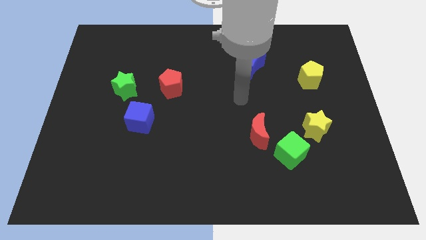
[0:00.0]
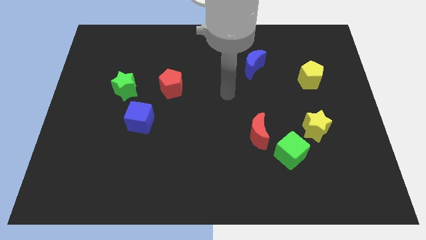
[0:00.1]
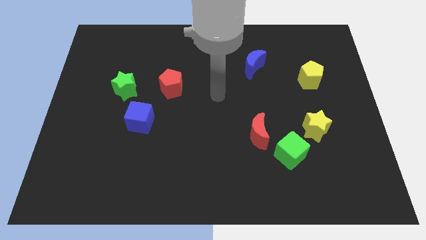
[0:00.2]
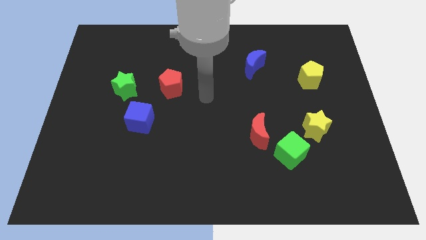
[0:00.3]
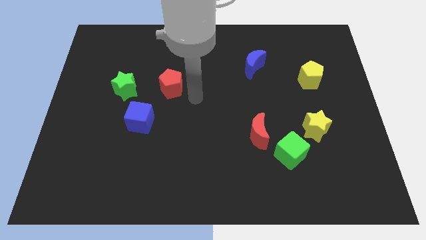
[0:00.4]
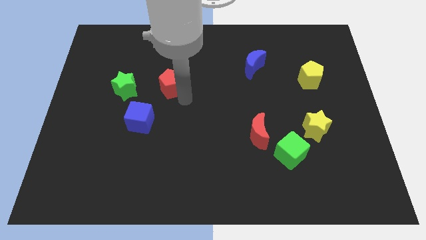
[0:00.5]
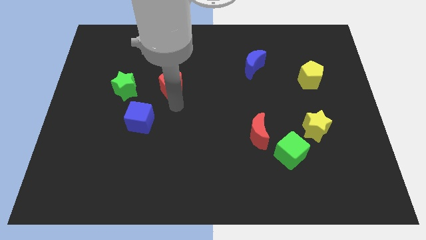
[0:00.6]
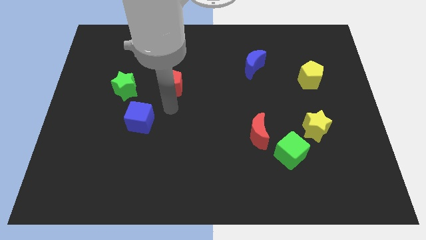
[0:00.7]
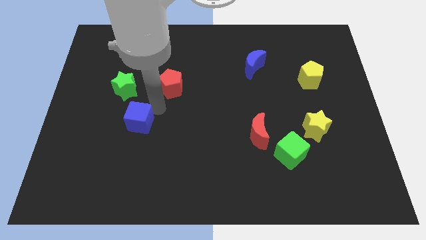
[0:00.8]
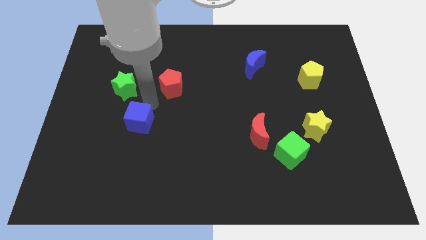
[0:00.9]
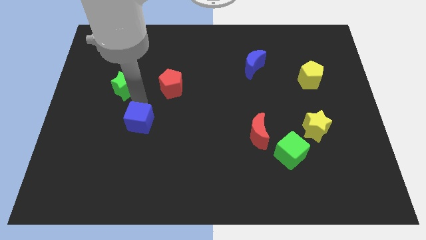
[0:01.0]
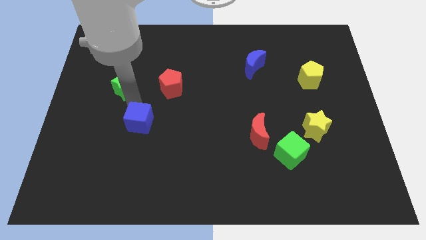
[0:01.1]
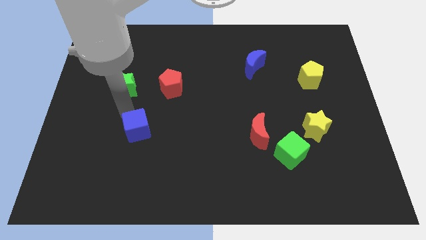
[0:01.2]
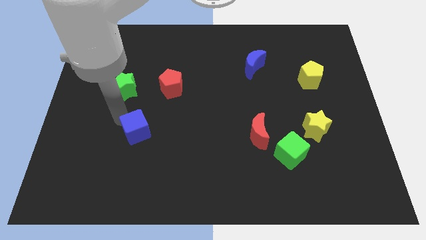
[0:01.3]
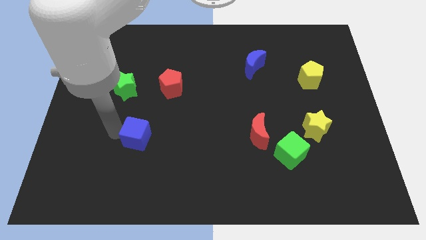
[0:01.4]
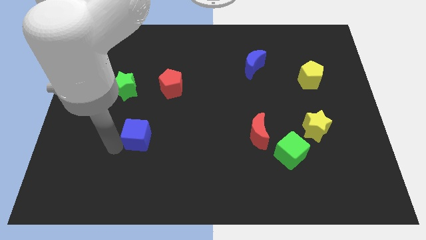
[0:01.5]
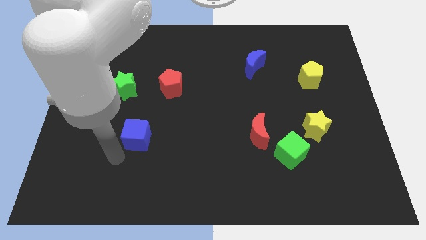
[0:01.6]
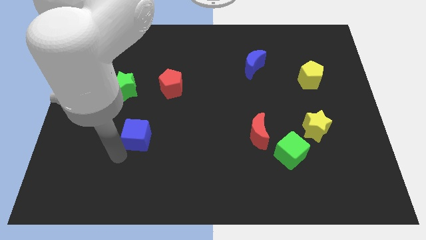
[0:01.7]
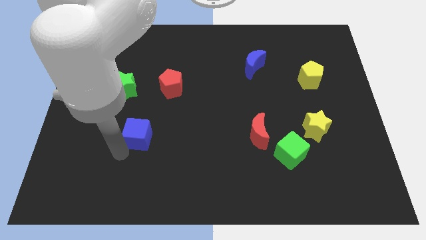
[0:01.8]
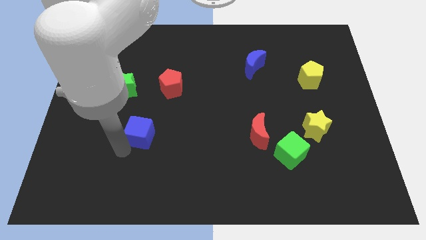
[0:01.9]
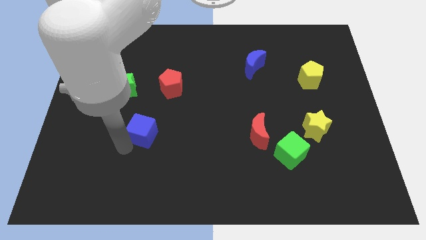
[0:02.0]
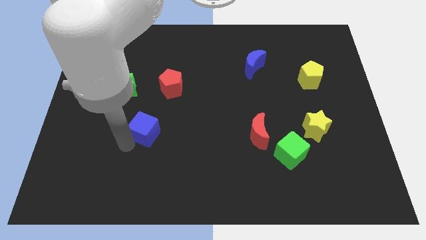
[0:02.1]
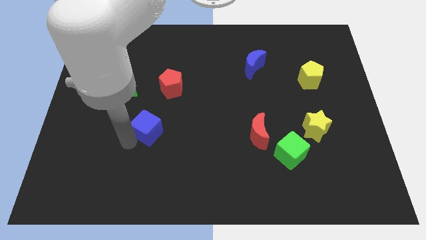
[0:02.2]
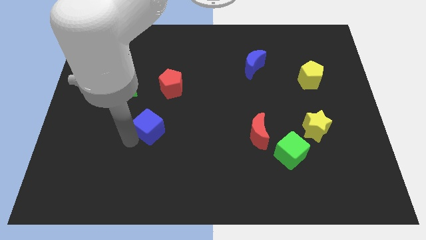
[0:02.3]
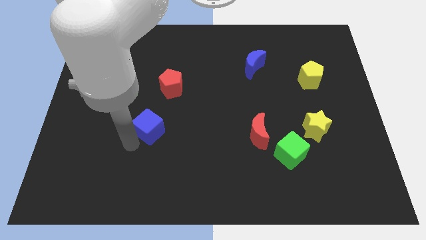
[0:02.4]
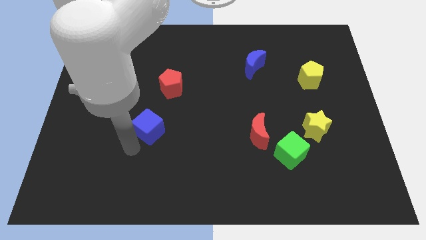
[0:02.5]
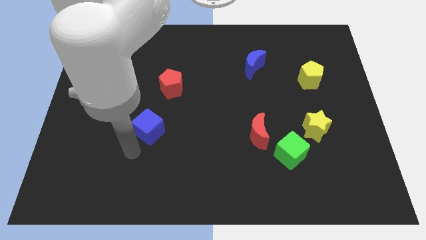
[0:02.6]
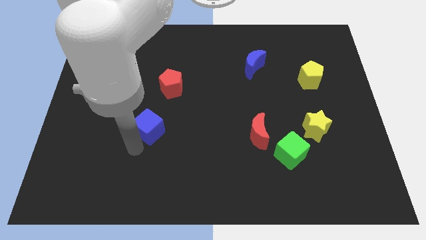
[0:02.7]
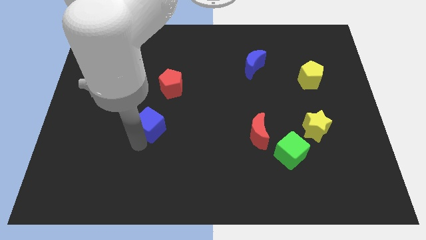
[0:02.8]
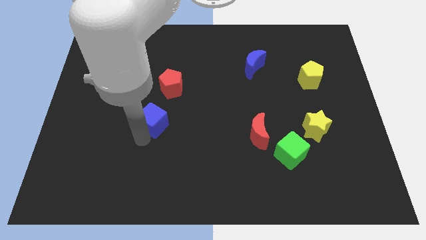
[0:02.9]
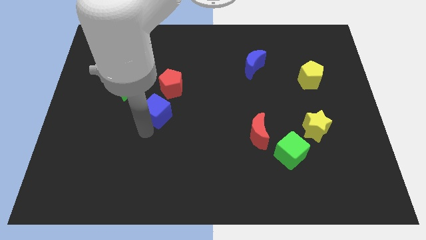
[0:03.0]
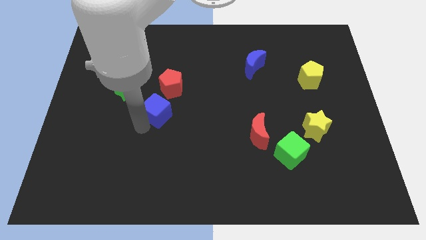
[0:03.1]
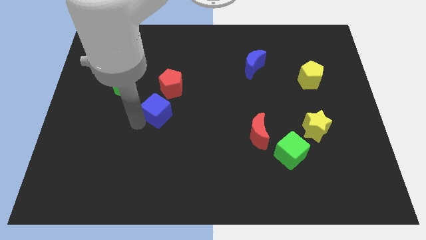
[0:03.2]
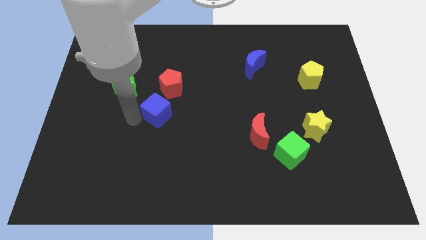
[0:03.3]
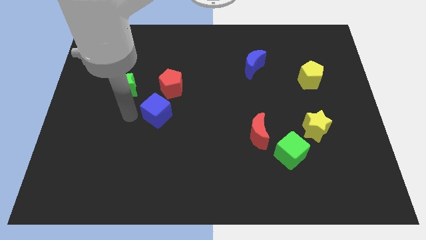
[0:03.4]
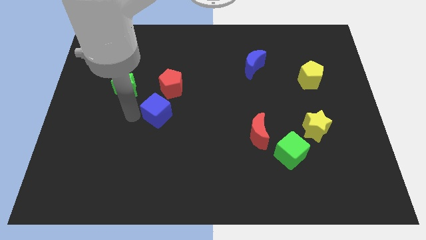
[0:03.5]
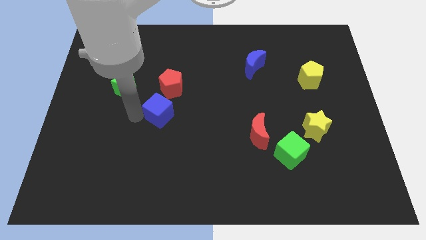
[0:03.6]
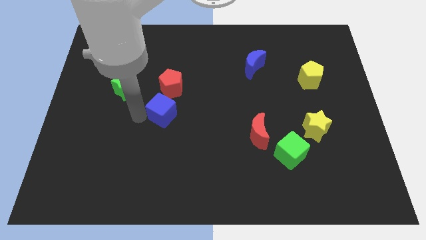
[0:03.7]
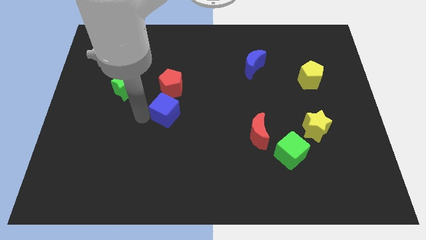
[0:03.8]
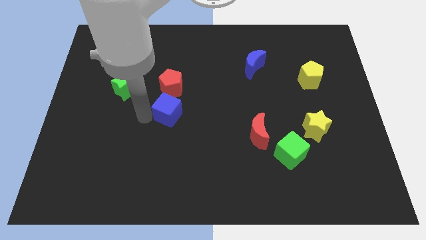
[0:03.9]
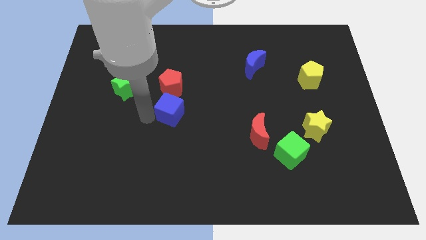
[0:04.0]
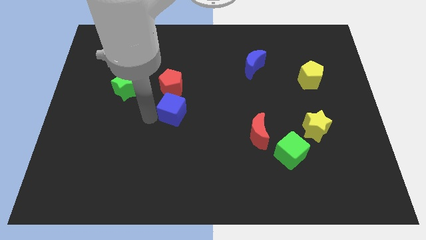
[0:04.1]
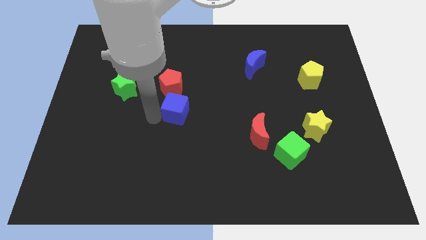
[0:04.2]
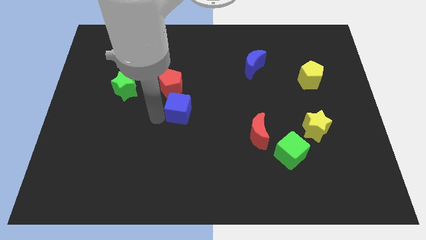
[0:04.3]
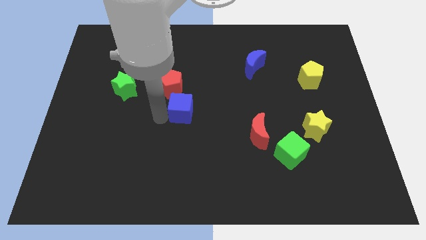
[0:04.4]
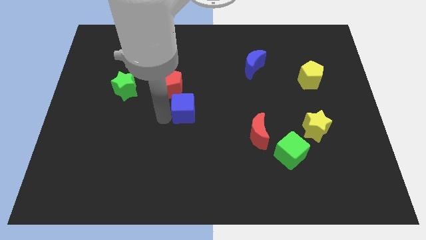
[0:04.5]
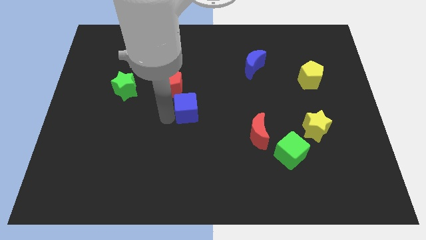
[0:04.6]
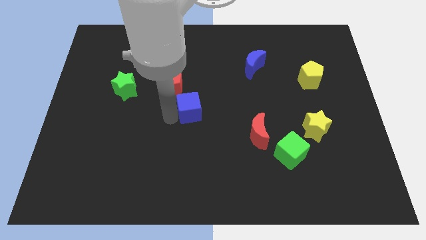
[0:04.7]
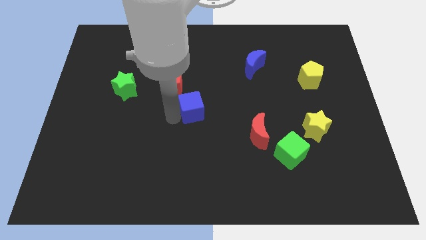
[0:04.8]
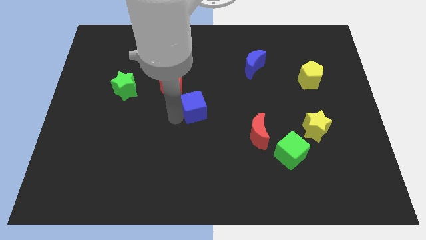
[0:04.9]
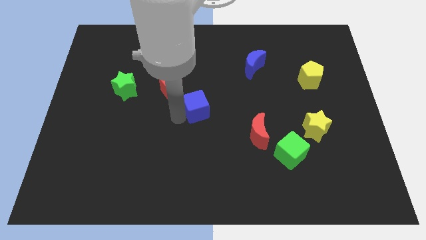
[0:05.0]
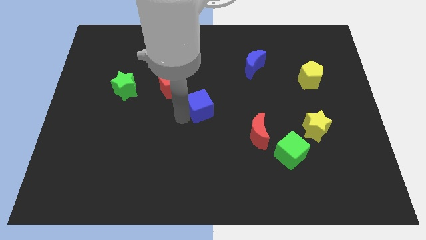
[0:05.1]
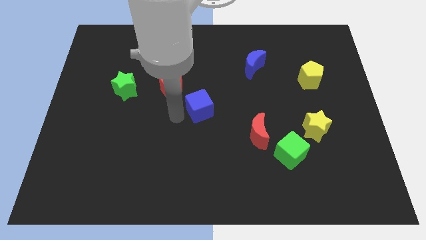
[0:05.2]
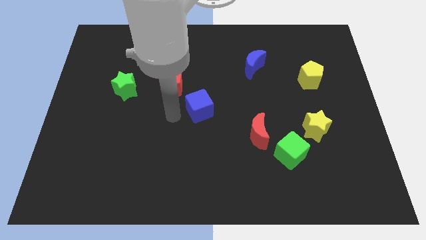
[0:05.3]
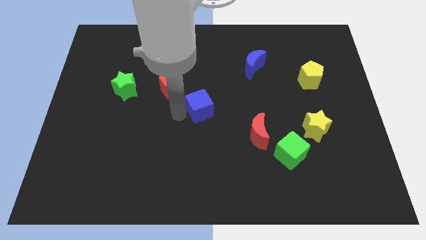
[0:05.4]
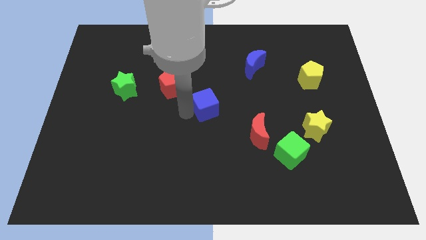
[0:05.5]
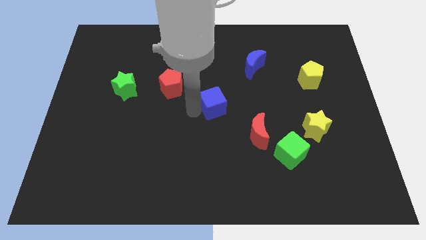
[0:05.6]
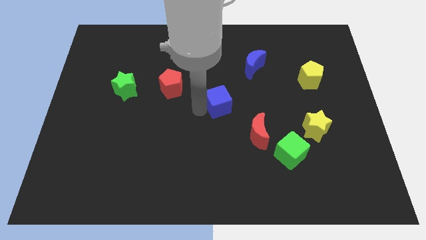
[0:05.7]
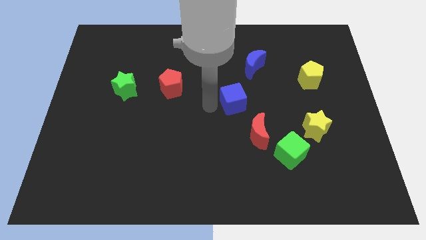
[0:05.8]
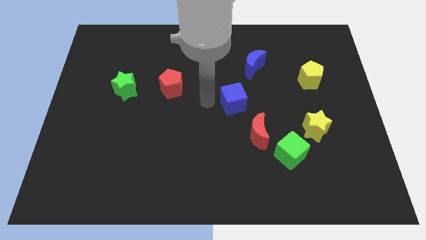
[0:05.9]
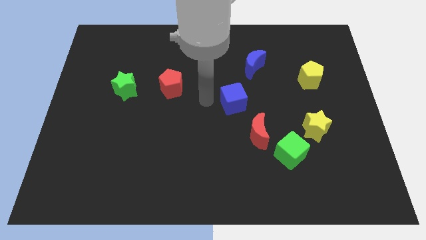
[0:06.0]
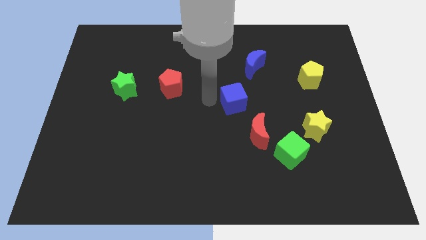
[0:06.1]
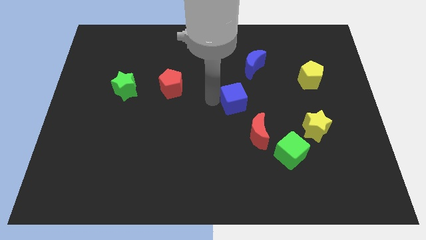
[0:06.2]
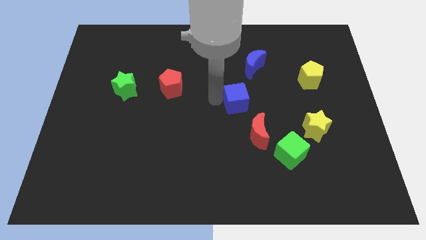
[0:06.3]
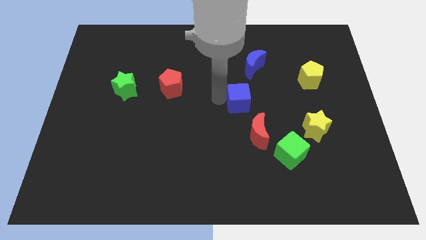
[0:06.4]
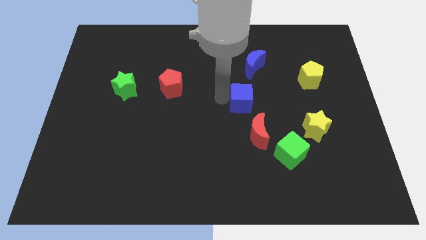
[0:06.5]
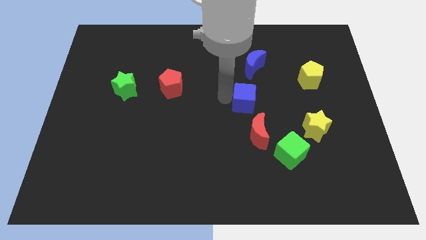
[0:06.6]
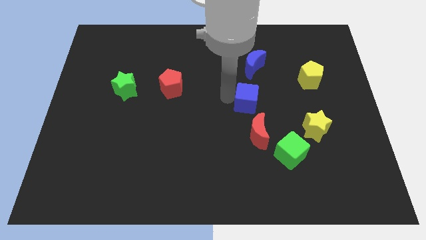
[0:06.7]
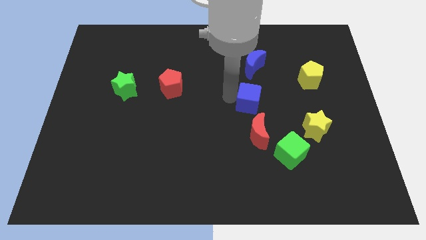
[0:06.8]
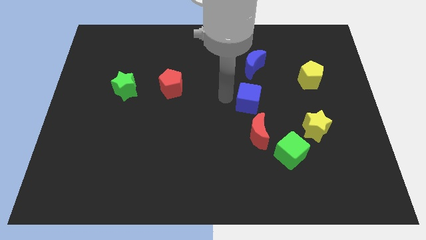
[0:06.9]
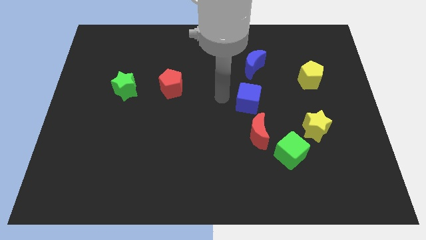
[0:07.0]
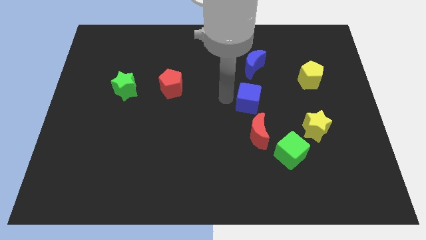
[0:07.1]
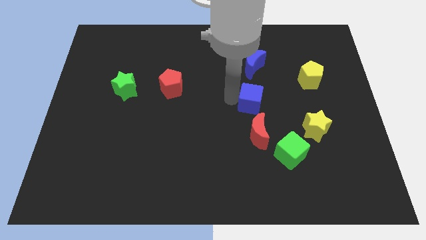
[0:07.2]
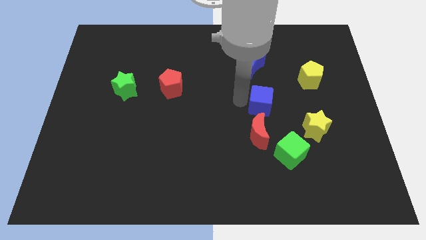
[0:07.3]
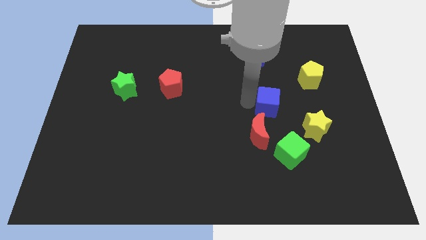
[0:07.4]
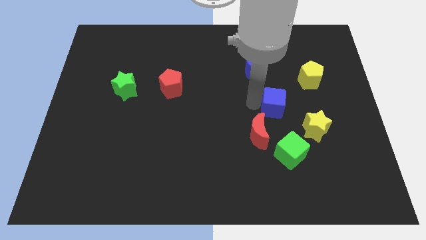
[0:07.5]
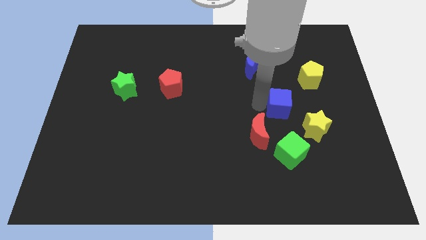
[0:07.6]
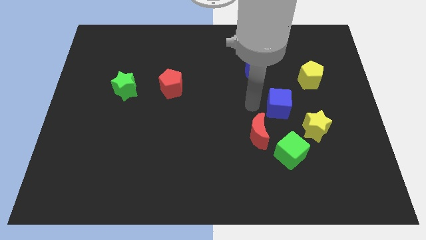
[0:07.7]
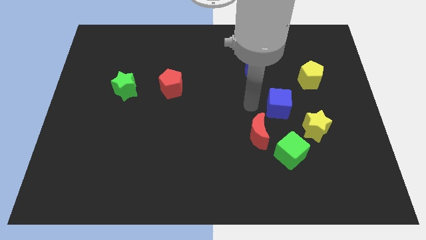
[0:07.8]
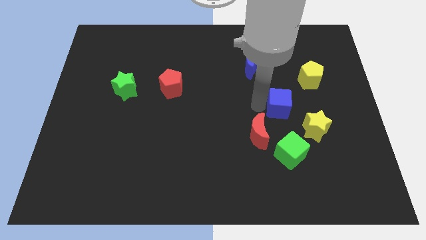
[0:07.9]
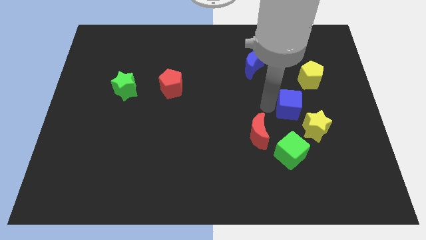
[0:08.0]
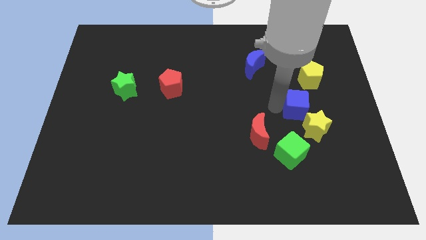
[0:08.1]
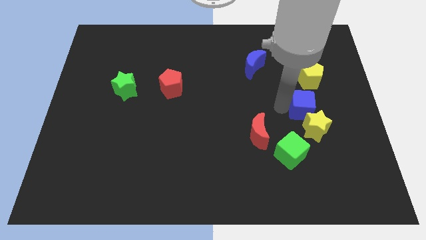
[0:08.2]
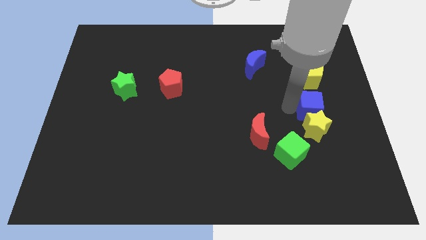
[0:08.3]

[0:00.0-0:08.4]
put the blue cube to the top right of the yellow star
